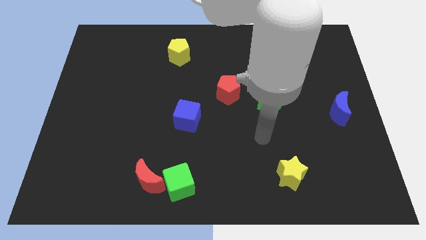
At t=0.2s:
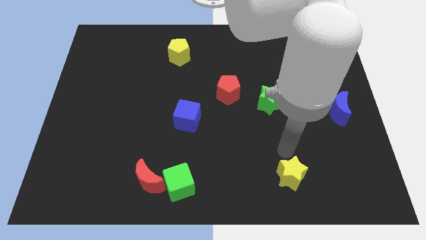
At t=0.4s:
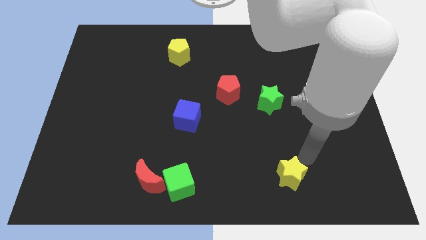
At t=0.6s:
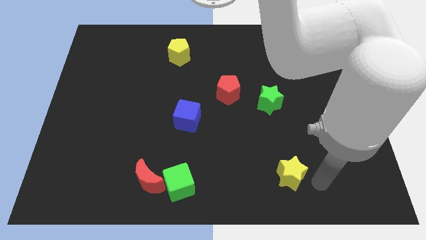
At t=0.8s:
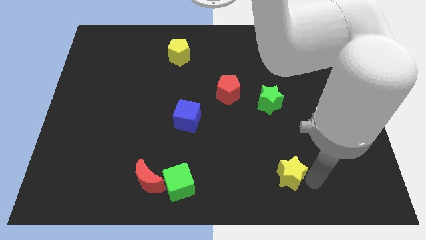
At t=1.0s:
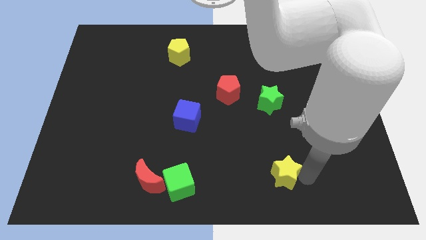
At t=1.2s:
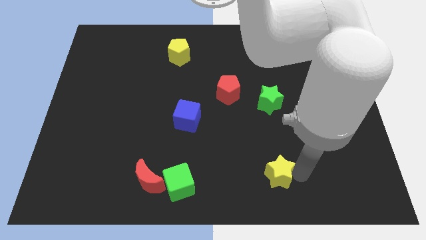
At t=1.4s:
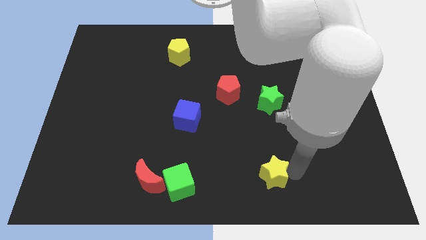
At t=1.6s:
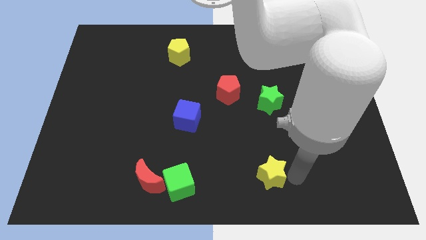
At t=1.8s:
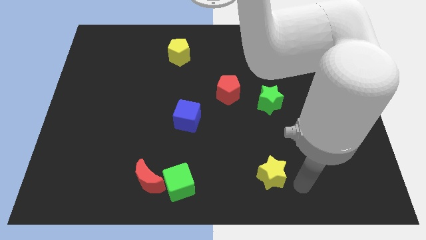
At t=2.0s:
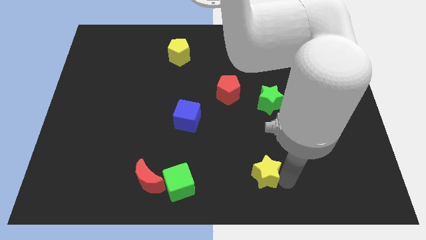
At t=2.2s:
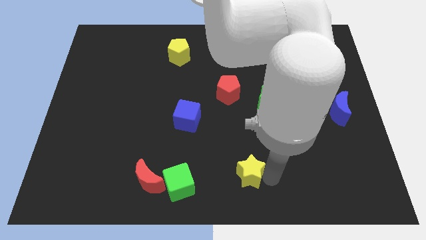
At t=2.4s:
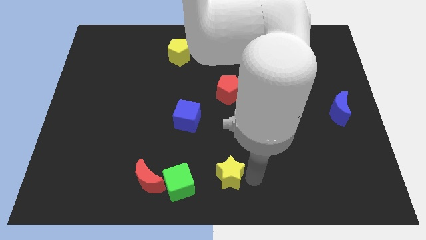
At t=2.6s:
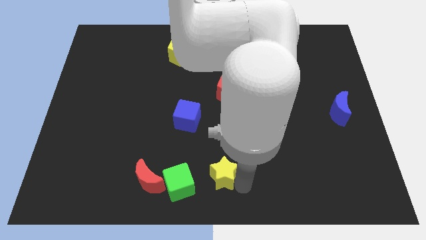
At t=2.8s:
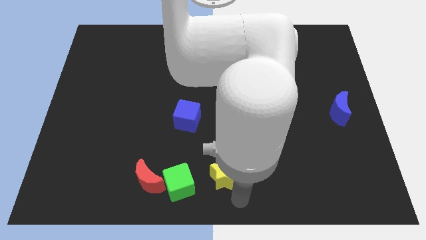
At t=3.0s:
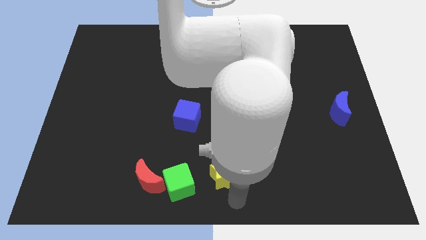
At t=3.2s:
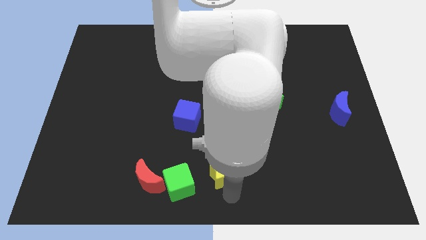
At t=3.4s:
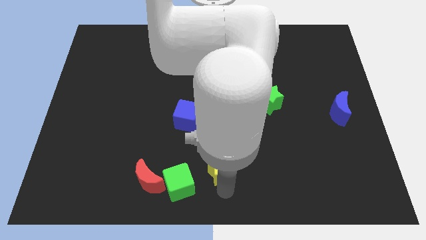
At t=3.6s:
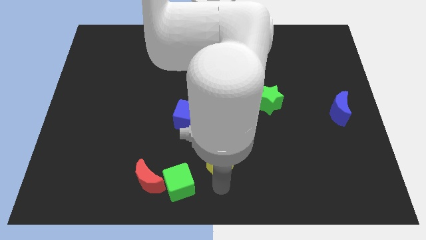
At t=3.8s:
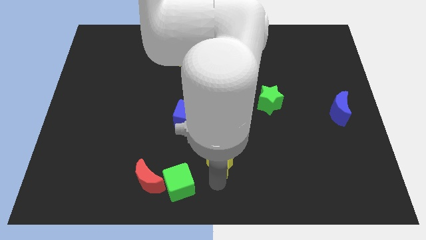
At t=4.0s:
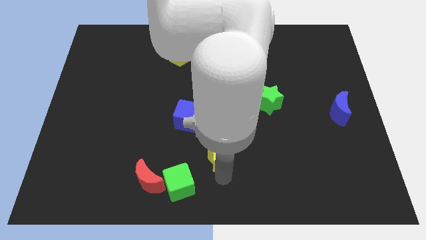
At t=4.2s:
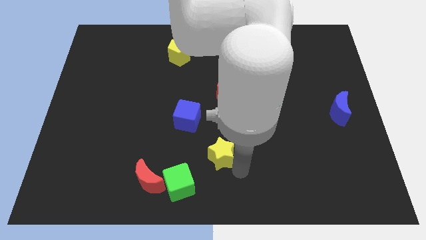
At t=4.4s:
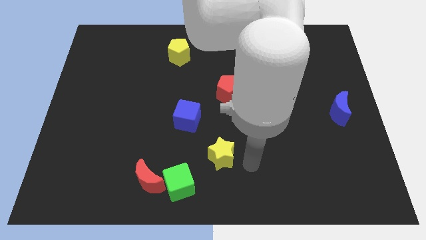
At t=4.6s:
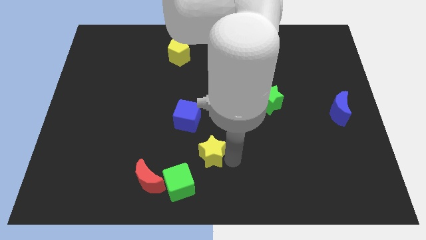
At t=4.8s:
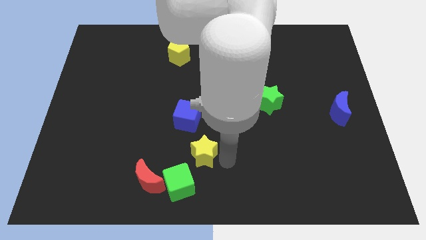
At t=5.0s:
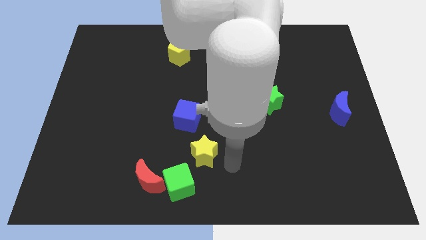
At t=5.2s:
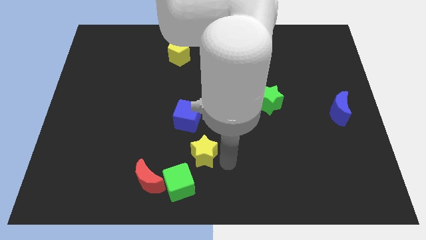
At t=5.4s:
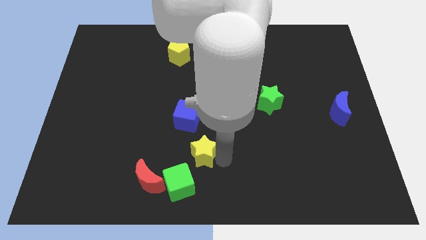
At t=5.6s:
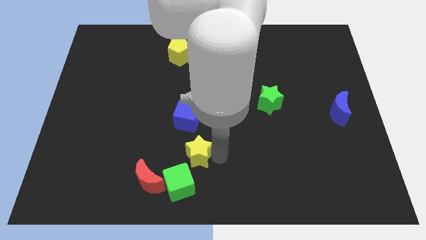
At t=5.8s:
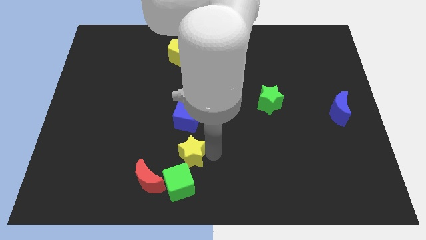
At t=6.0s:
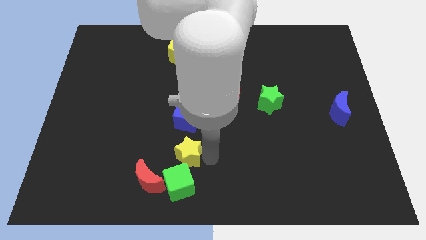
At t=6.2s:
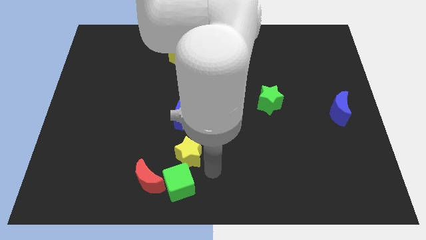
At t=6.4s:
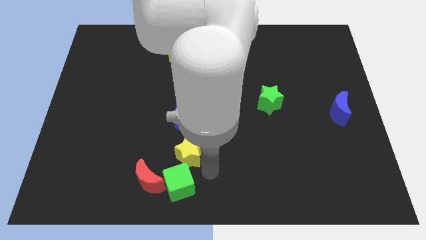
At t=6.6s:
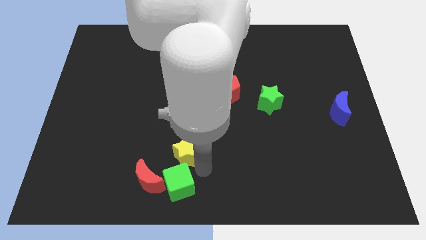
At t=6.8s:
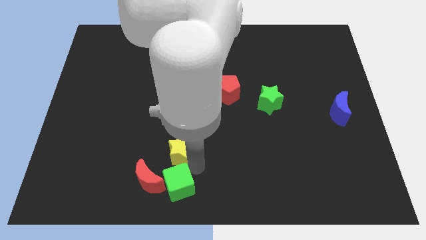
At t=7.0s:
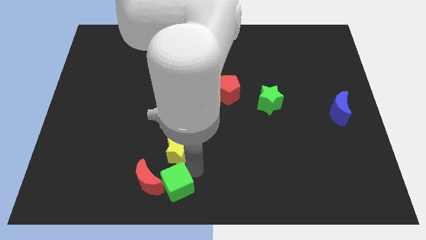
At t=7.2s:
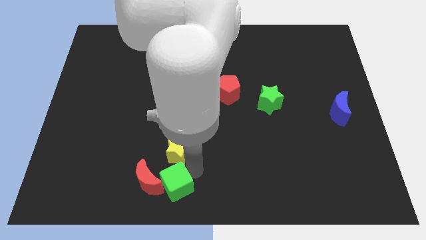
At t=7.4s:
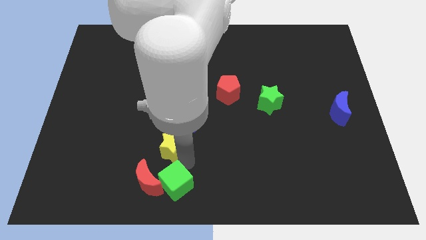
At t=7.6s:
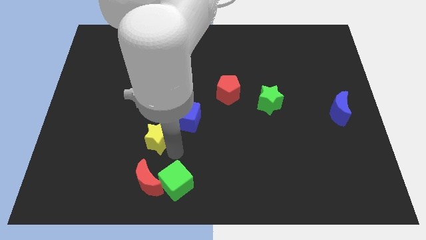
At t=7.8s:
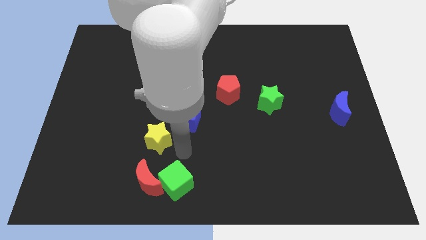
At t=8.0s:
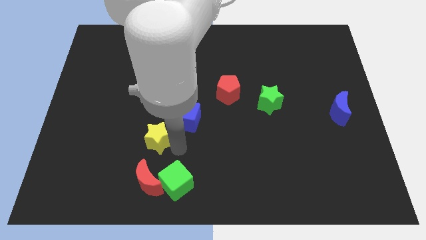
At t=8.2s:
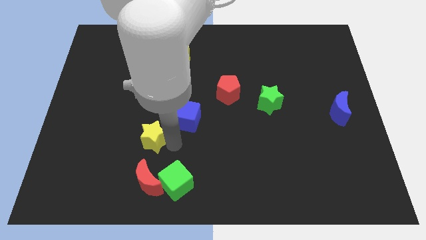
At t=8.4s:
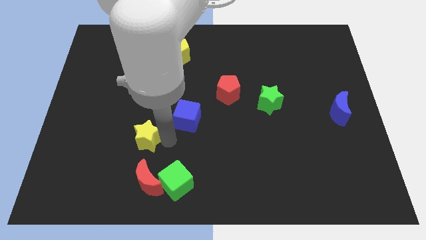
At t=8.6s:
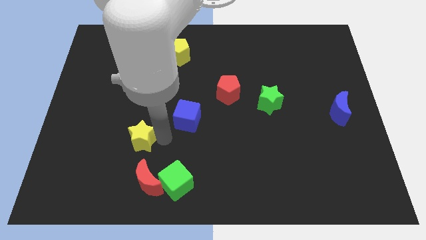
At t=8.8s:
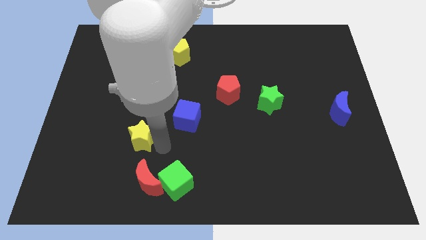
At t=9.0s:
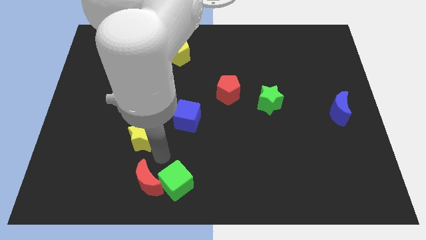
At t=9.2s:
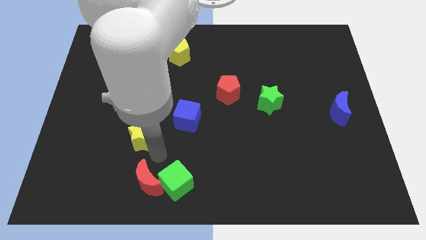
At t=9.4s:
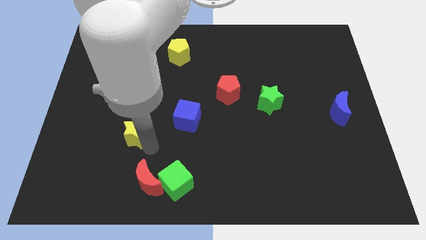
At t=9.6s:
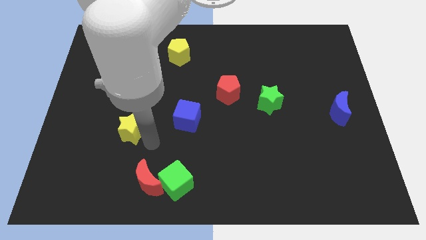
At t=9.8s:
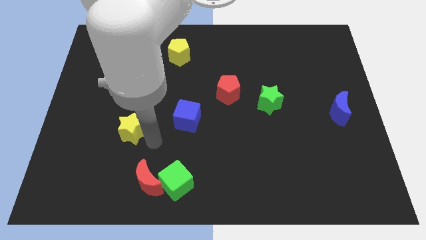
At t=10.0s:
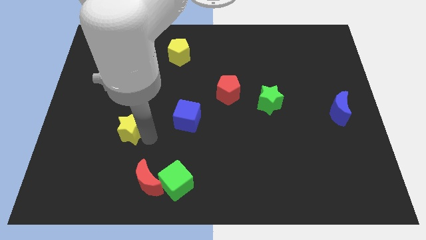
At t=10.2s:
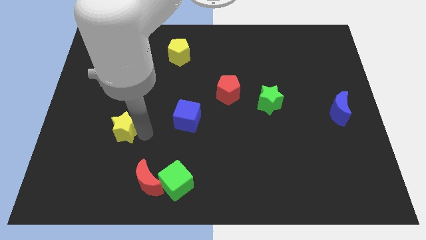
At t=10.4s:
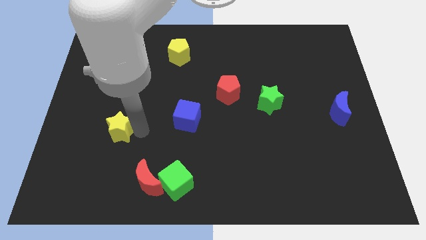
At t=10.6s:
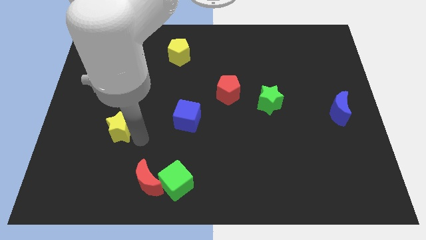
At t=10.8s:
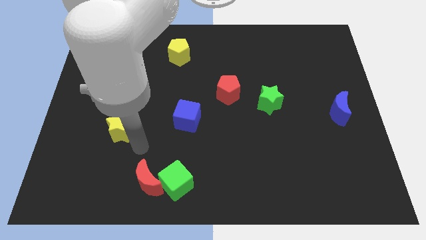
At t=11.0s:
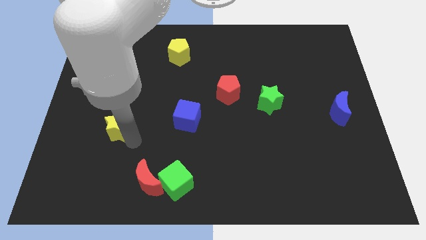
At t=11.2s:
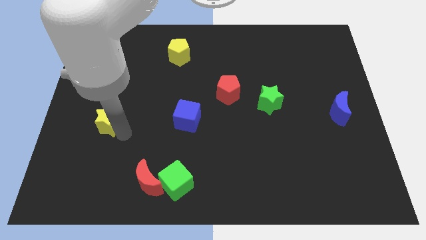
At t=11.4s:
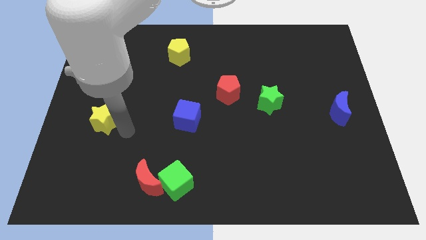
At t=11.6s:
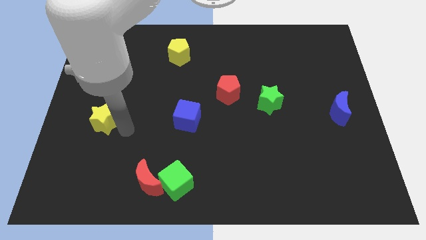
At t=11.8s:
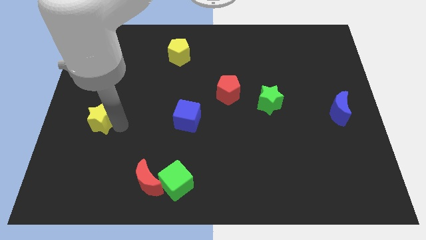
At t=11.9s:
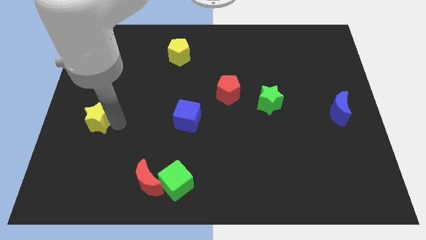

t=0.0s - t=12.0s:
put the yellow star to the left side of the board

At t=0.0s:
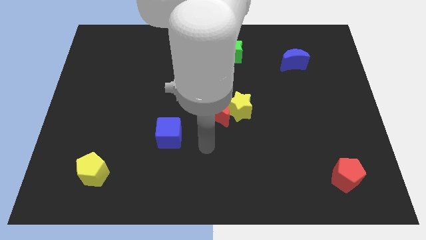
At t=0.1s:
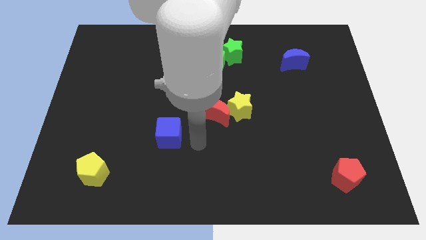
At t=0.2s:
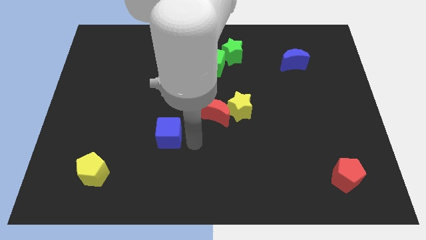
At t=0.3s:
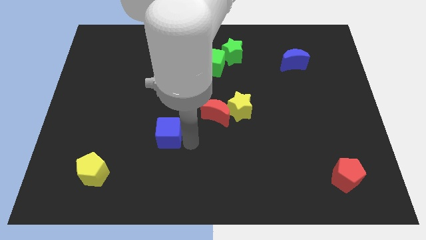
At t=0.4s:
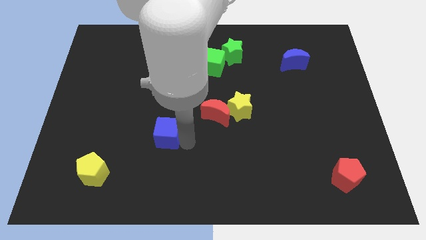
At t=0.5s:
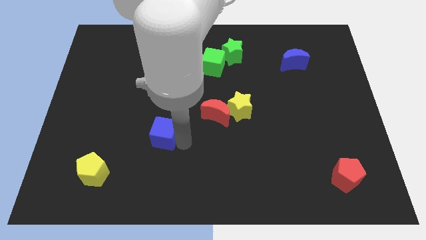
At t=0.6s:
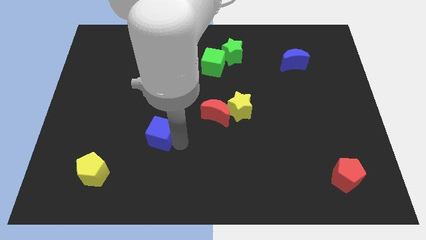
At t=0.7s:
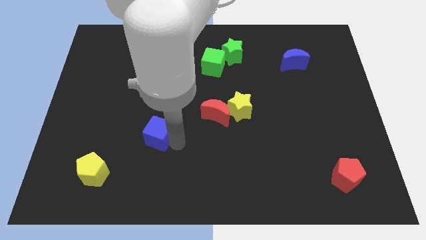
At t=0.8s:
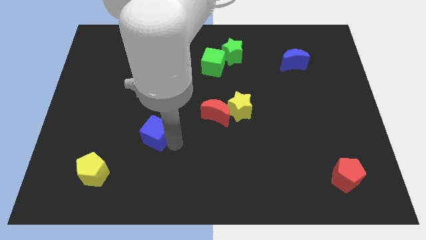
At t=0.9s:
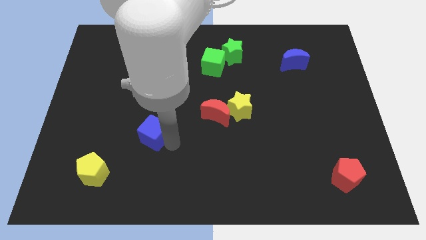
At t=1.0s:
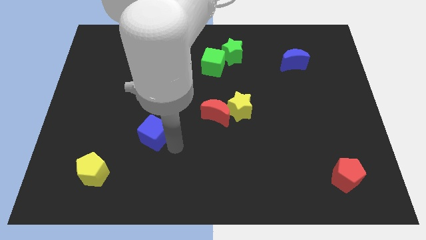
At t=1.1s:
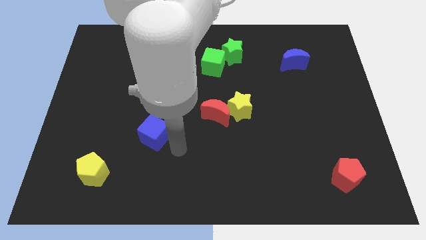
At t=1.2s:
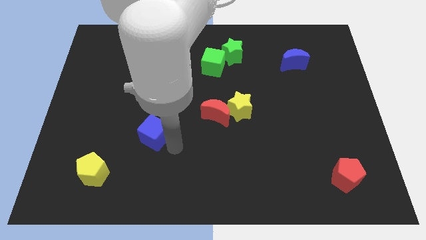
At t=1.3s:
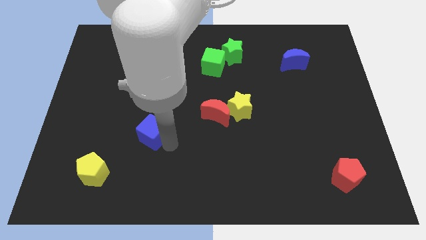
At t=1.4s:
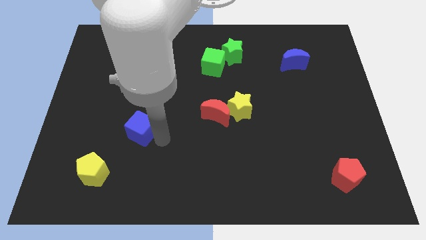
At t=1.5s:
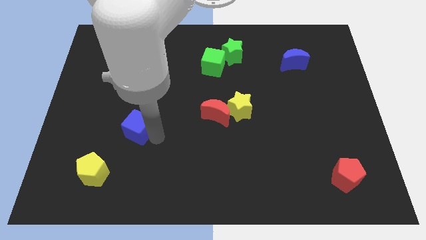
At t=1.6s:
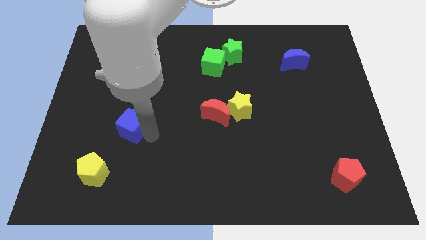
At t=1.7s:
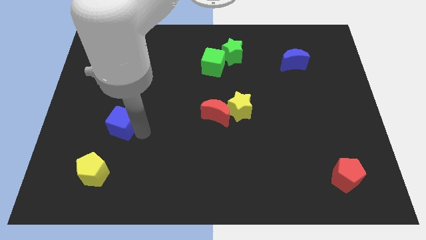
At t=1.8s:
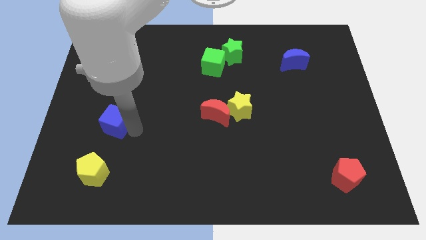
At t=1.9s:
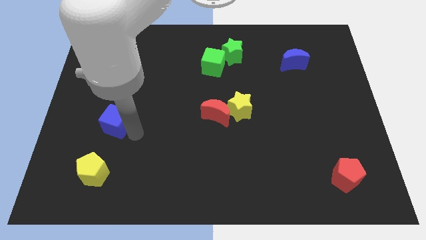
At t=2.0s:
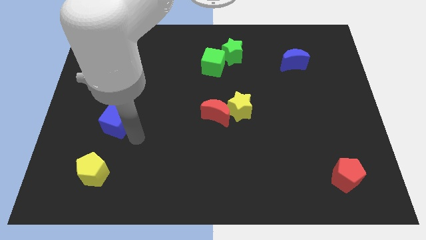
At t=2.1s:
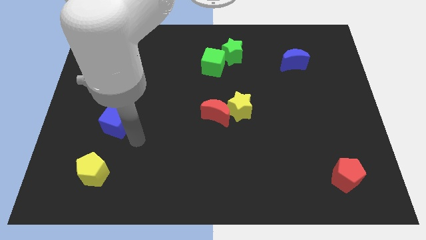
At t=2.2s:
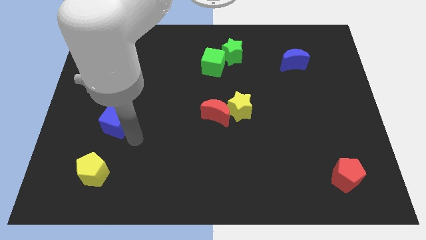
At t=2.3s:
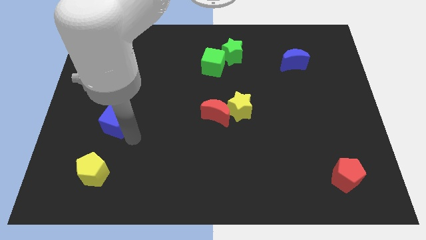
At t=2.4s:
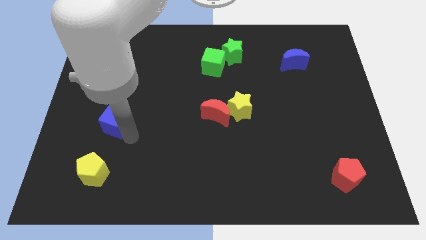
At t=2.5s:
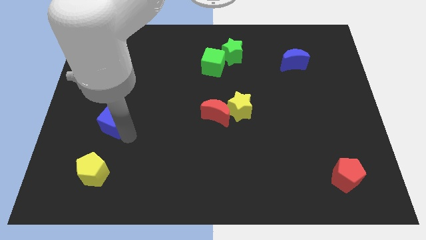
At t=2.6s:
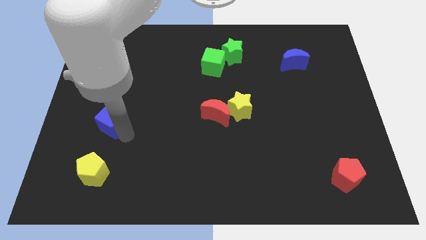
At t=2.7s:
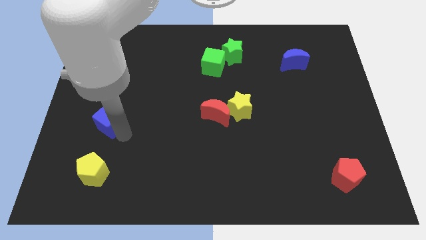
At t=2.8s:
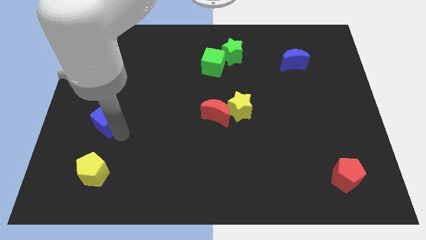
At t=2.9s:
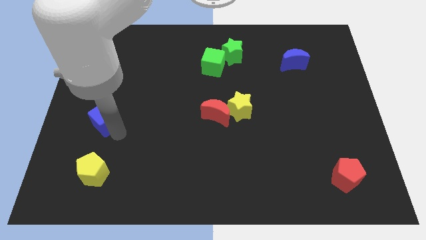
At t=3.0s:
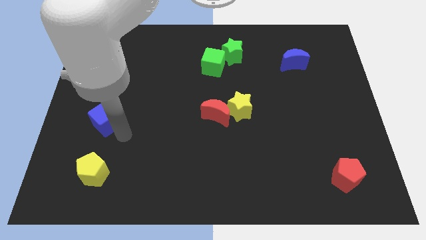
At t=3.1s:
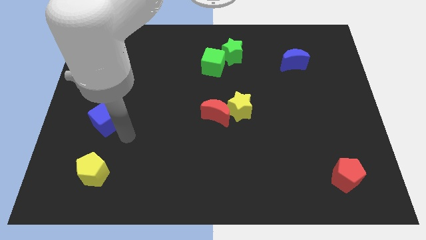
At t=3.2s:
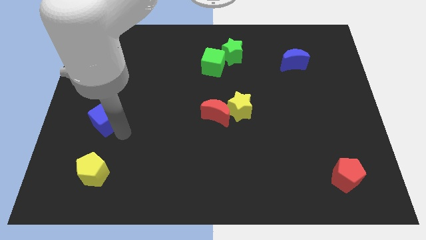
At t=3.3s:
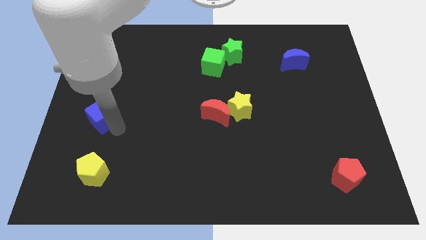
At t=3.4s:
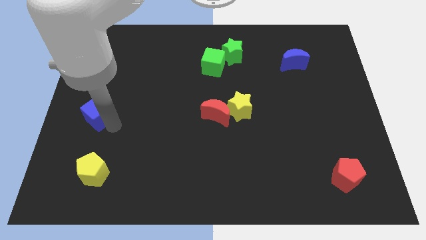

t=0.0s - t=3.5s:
slide the blue cube to the left side of the board
